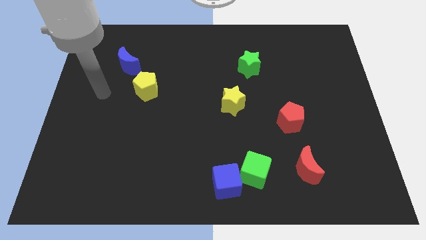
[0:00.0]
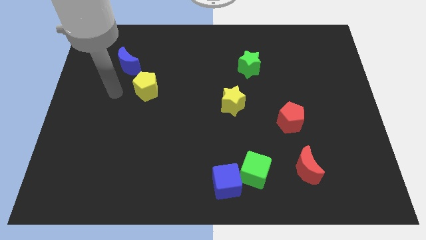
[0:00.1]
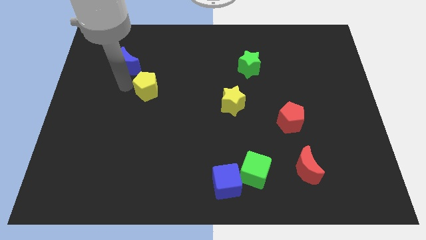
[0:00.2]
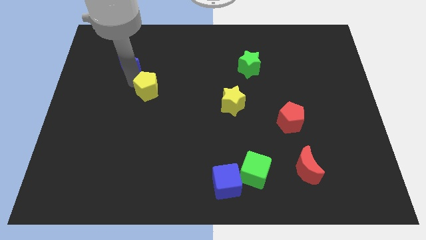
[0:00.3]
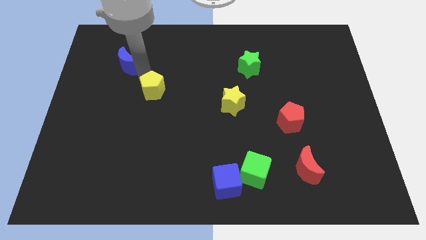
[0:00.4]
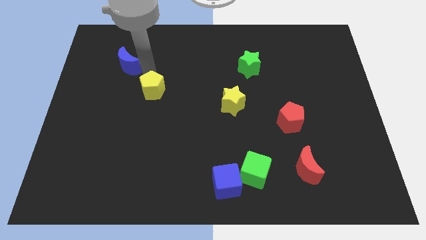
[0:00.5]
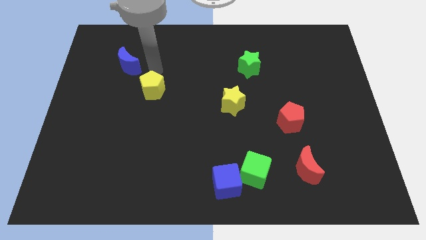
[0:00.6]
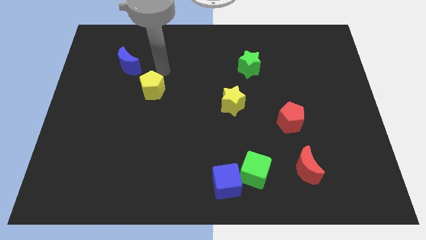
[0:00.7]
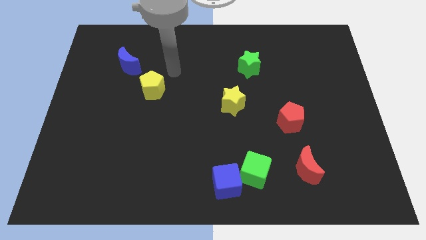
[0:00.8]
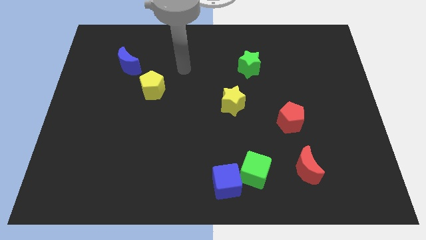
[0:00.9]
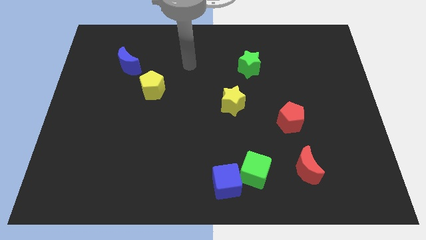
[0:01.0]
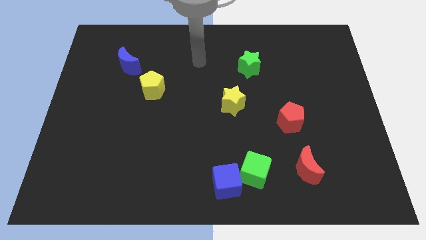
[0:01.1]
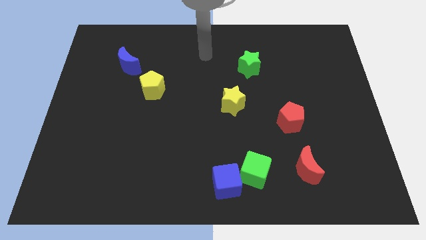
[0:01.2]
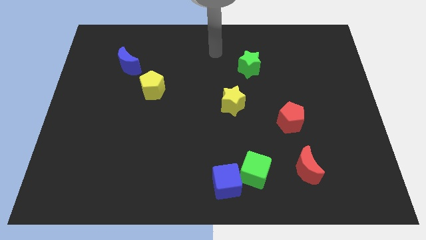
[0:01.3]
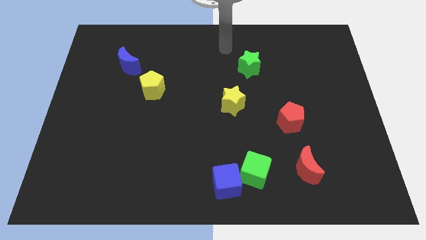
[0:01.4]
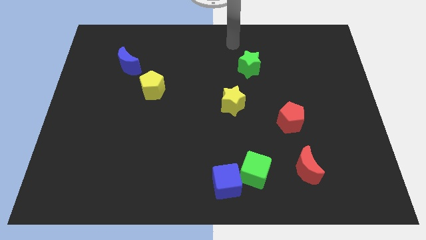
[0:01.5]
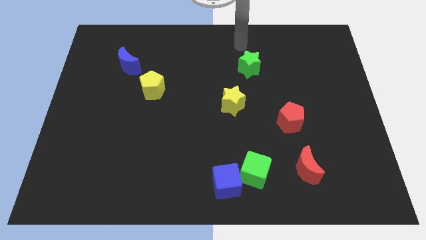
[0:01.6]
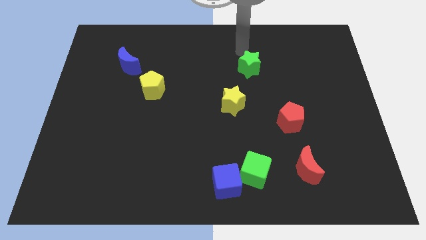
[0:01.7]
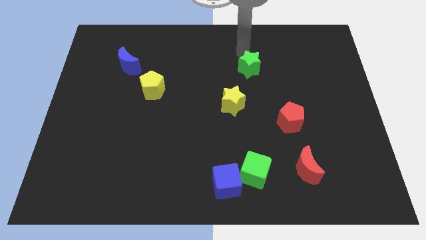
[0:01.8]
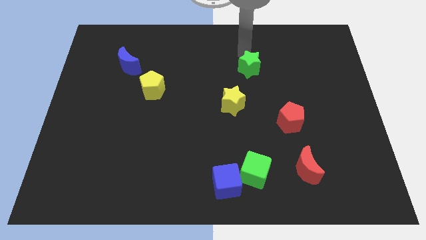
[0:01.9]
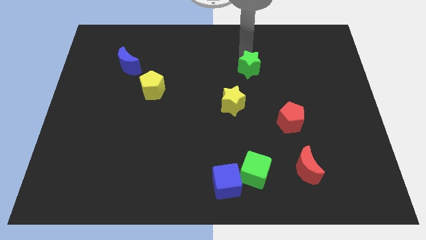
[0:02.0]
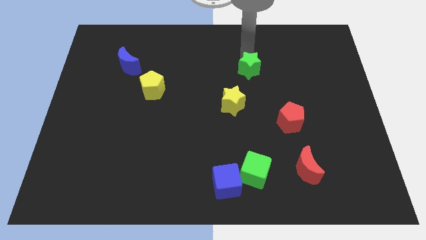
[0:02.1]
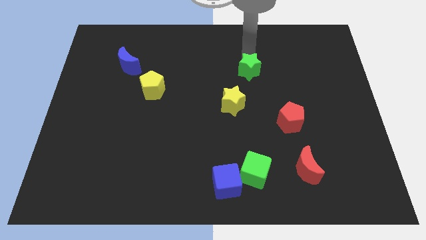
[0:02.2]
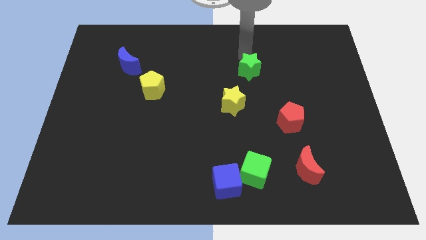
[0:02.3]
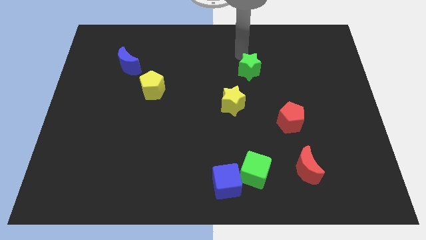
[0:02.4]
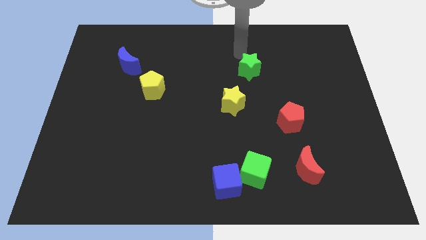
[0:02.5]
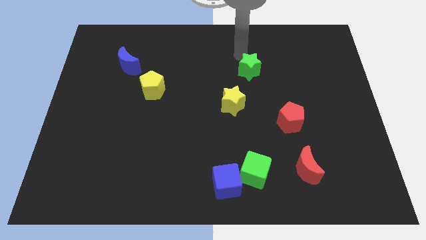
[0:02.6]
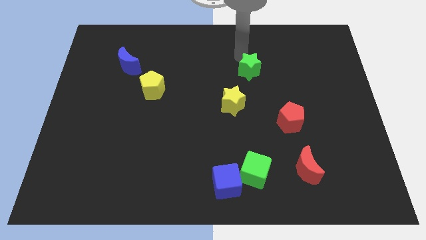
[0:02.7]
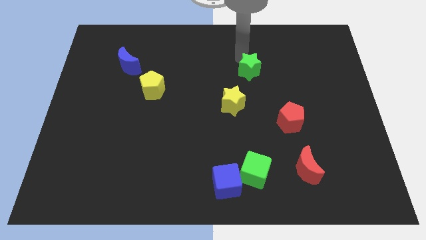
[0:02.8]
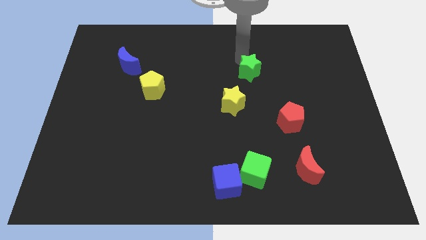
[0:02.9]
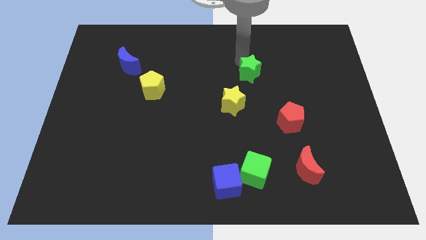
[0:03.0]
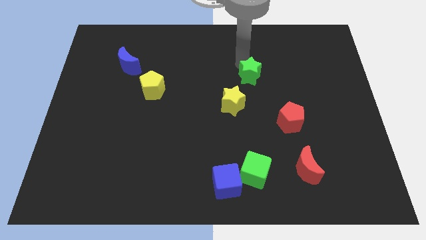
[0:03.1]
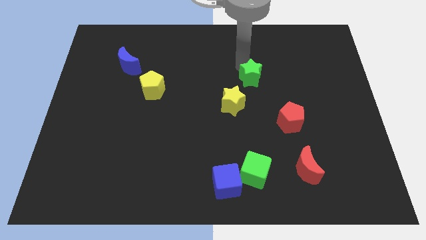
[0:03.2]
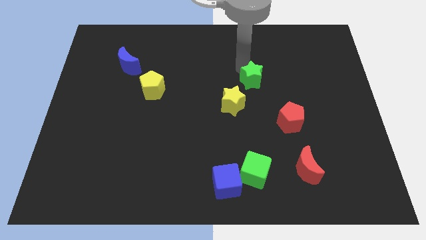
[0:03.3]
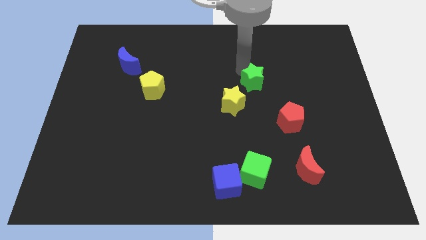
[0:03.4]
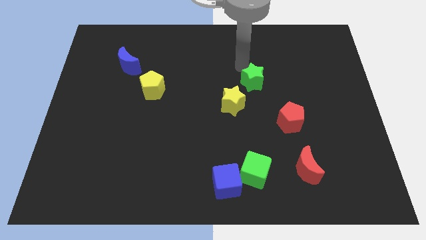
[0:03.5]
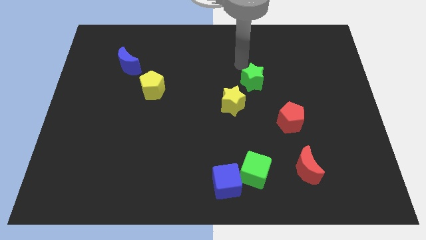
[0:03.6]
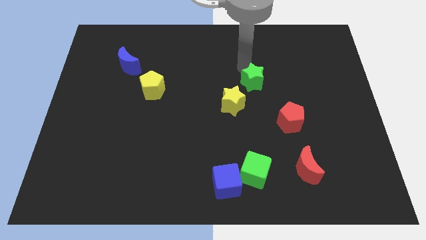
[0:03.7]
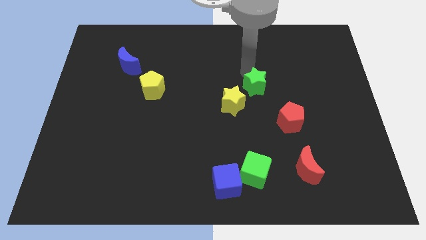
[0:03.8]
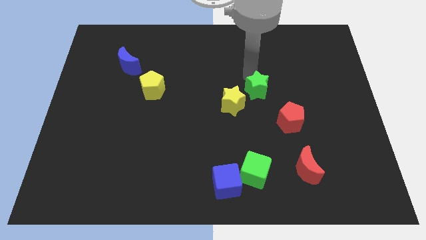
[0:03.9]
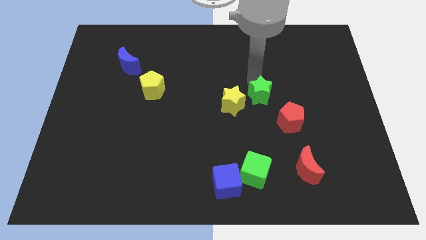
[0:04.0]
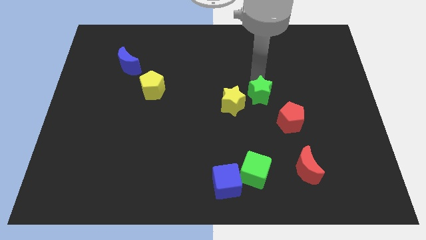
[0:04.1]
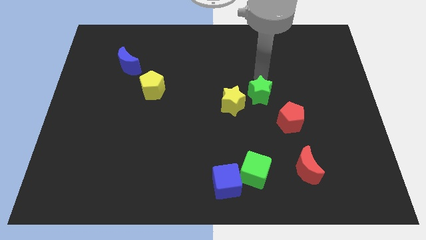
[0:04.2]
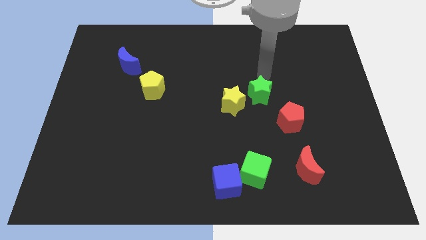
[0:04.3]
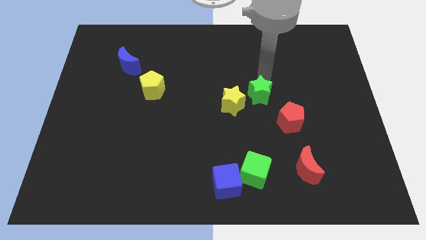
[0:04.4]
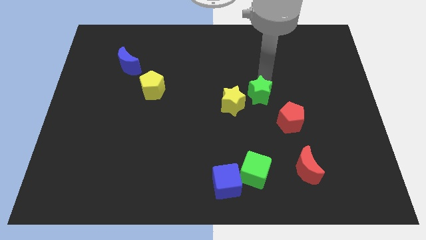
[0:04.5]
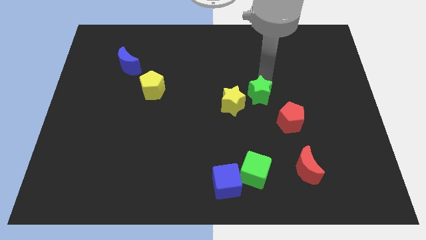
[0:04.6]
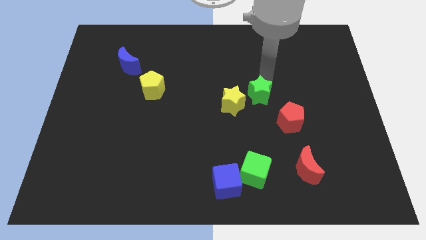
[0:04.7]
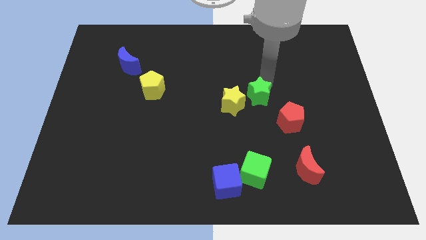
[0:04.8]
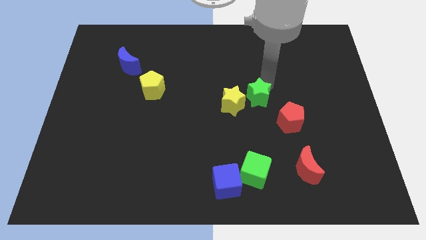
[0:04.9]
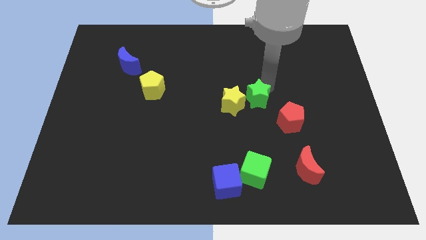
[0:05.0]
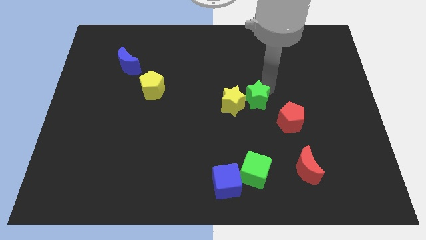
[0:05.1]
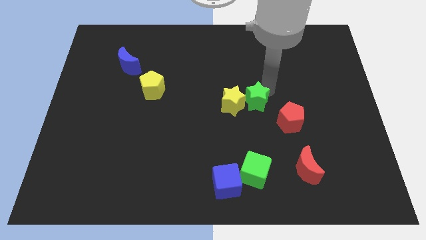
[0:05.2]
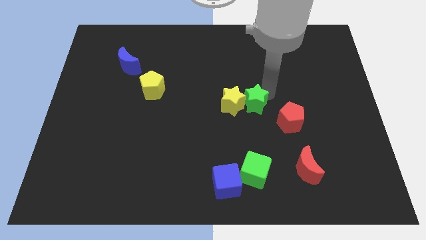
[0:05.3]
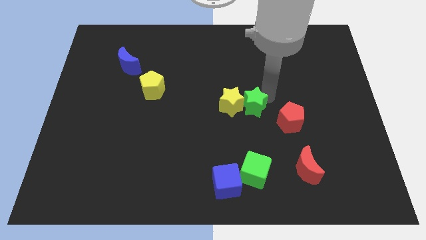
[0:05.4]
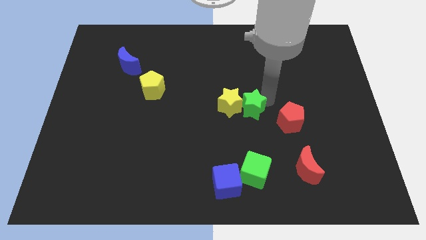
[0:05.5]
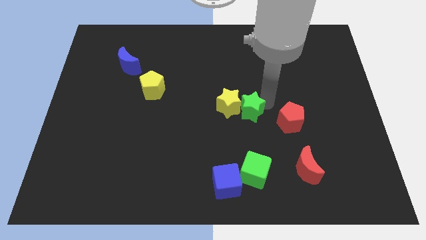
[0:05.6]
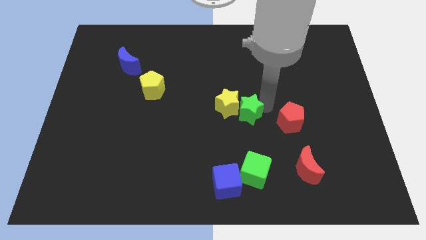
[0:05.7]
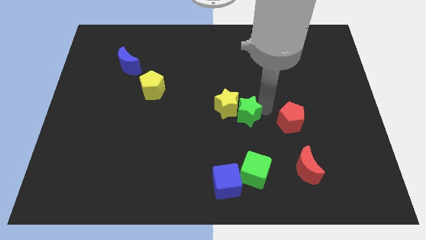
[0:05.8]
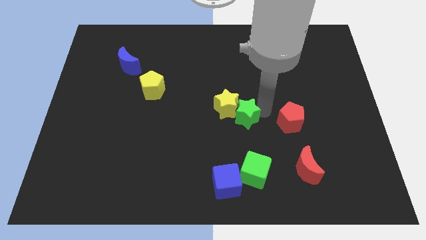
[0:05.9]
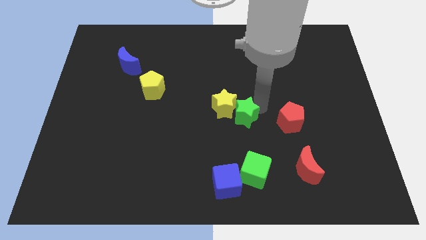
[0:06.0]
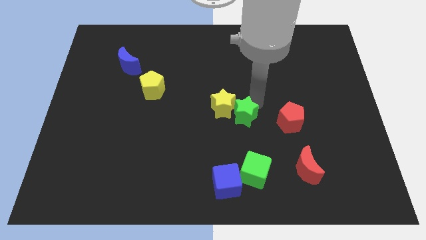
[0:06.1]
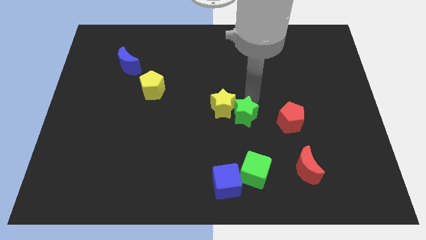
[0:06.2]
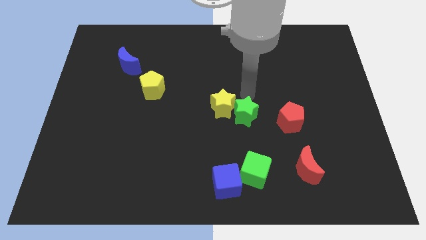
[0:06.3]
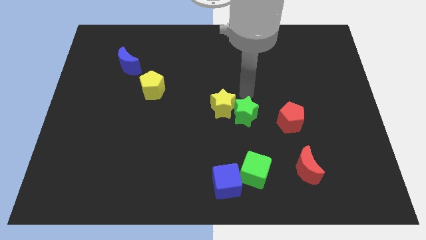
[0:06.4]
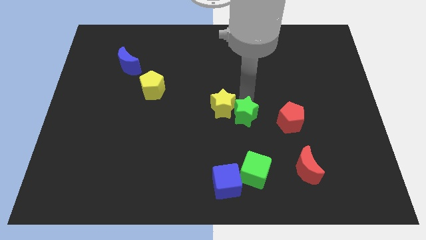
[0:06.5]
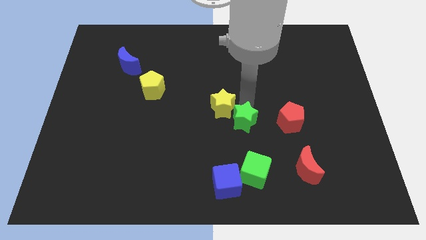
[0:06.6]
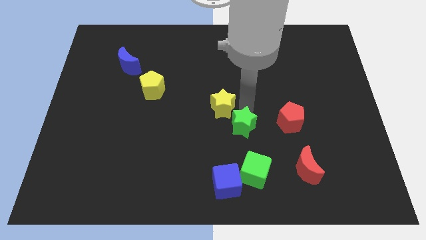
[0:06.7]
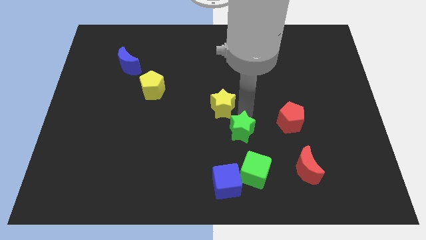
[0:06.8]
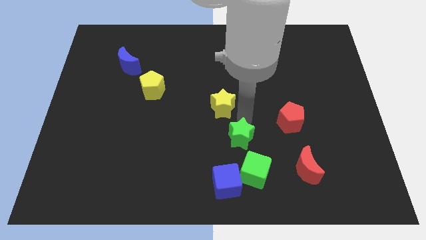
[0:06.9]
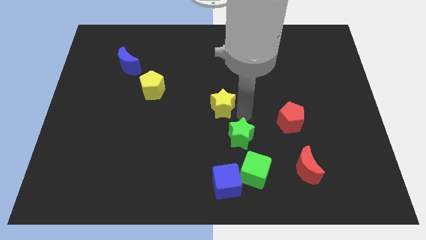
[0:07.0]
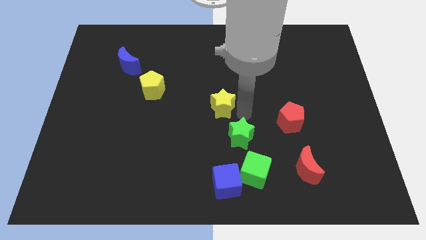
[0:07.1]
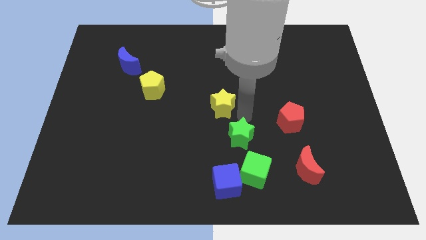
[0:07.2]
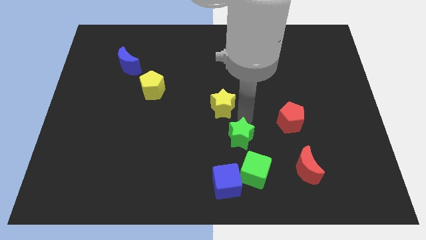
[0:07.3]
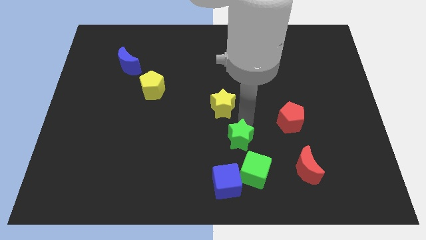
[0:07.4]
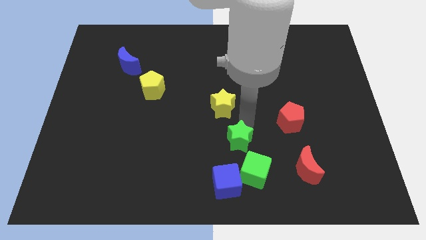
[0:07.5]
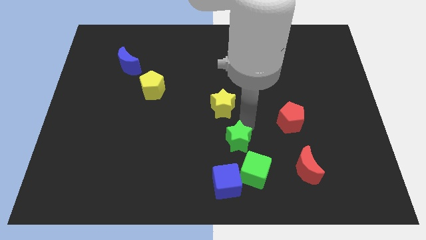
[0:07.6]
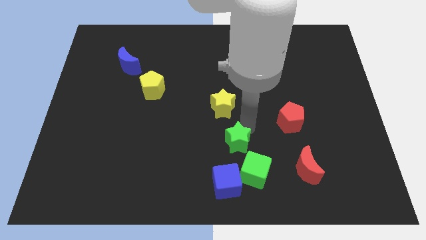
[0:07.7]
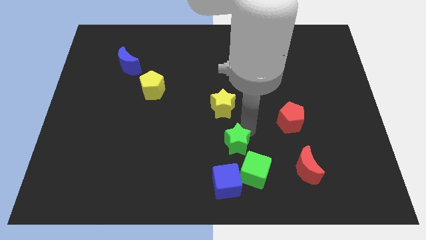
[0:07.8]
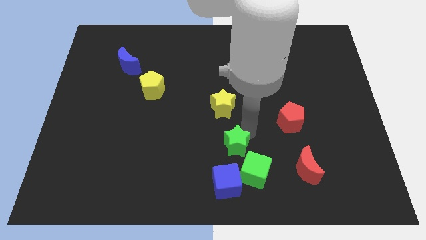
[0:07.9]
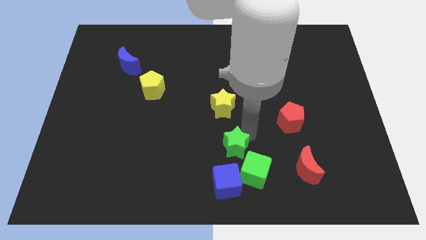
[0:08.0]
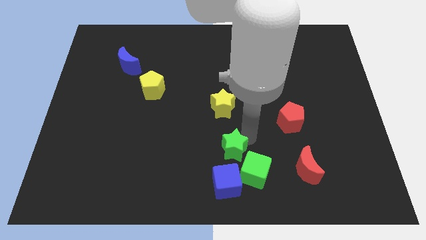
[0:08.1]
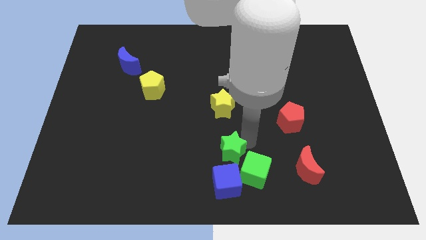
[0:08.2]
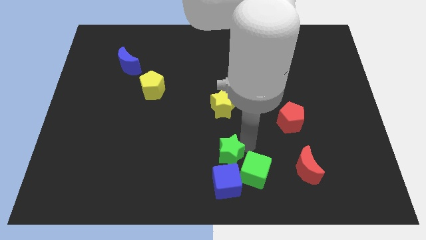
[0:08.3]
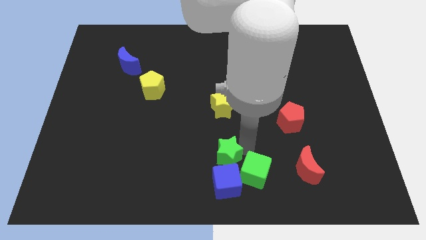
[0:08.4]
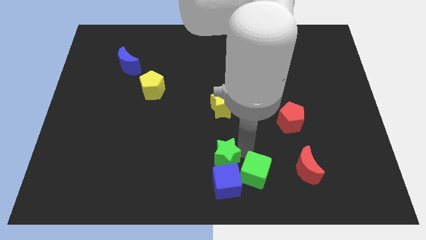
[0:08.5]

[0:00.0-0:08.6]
put the green star next to the blue cube
